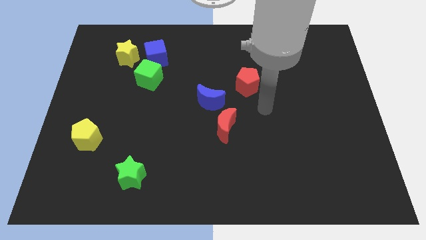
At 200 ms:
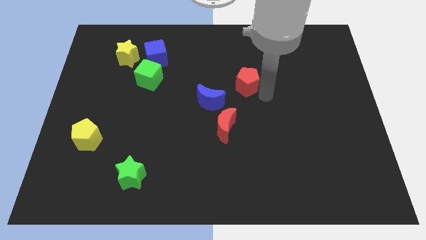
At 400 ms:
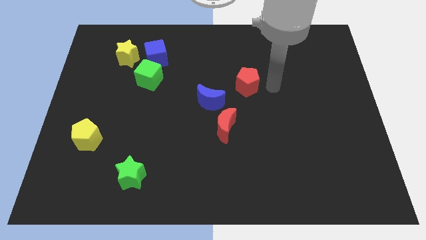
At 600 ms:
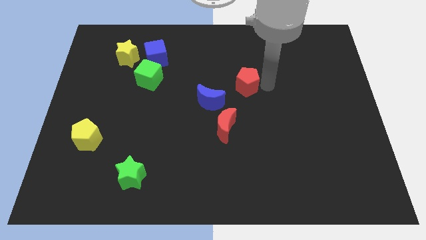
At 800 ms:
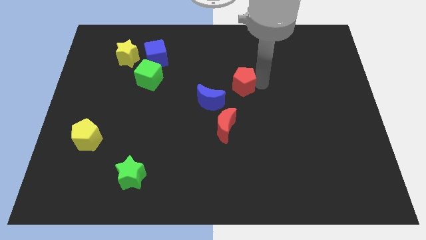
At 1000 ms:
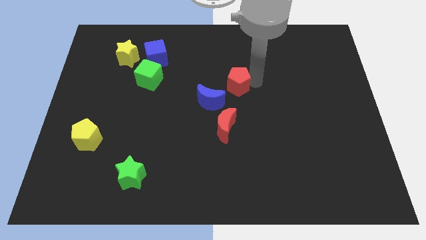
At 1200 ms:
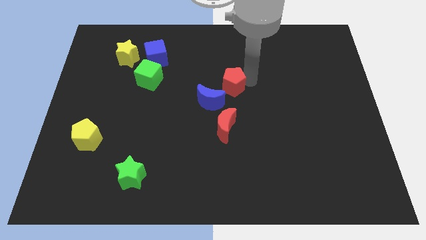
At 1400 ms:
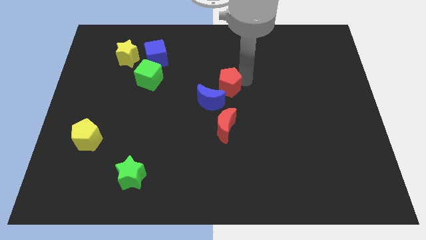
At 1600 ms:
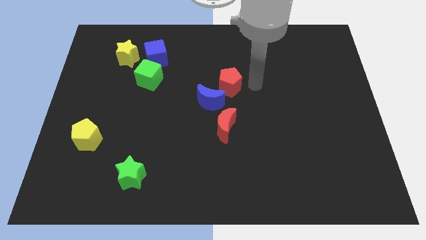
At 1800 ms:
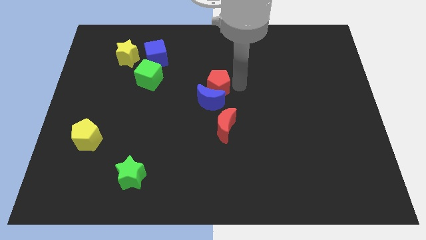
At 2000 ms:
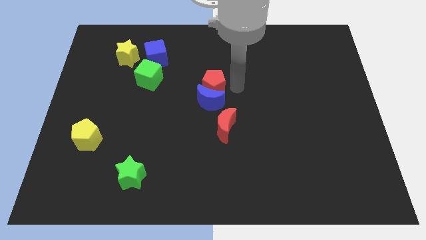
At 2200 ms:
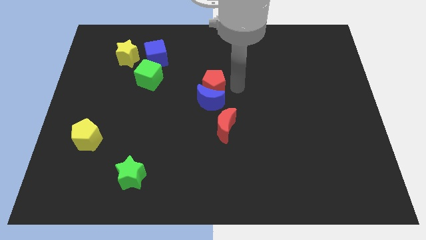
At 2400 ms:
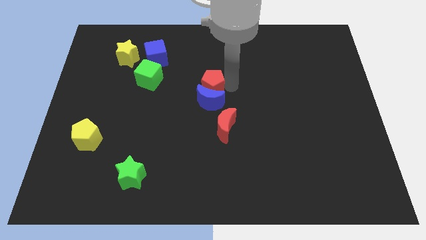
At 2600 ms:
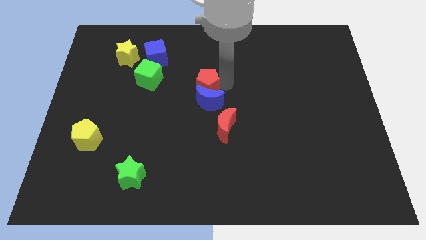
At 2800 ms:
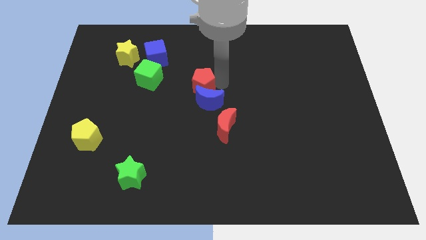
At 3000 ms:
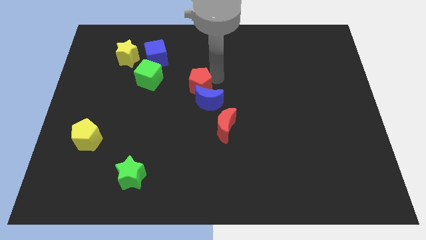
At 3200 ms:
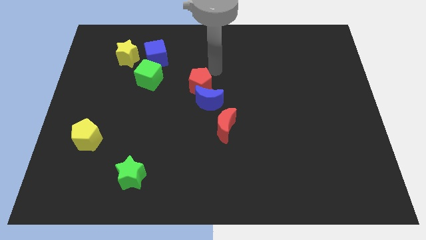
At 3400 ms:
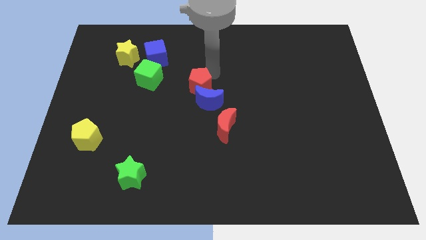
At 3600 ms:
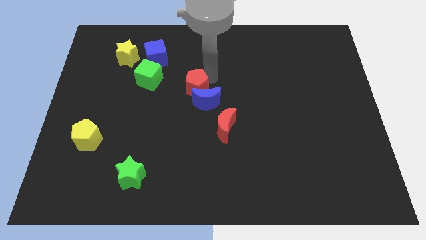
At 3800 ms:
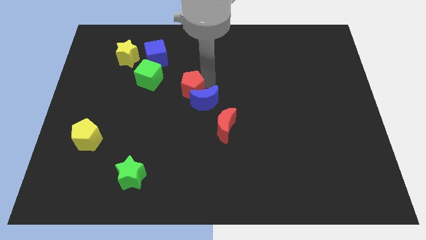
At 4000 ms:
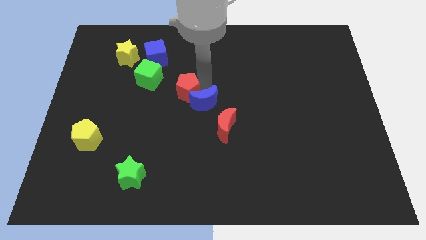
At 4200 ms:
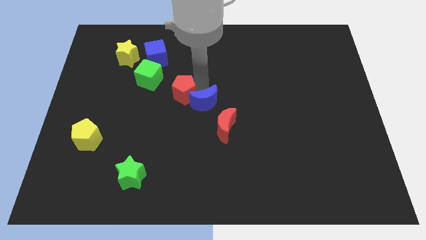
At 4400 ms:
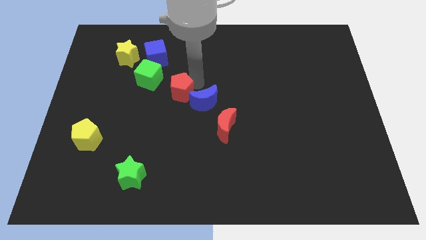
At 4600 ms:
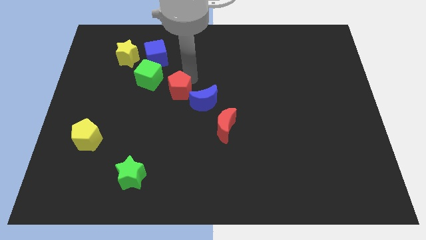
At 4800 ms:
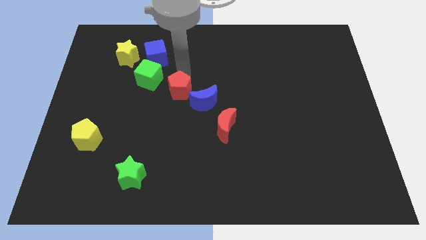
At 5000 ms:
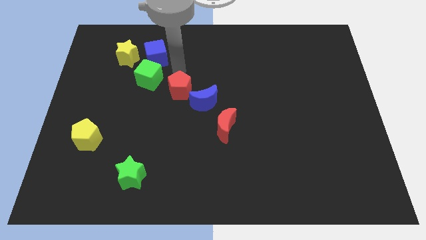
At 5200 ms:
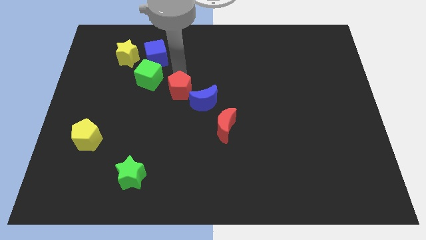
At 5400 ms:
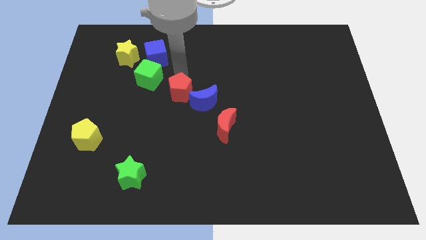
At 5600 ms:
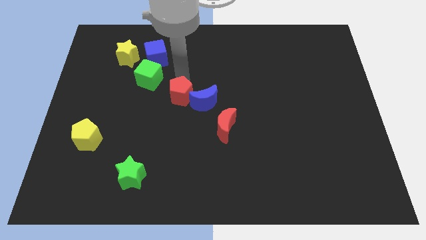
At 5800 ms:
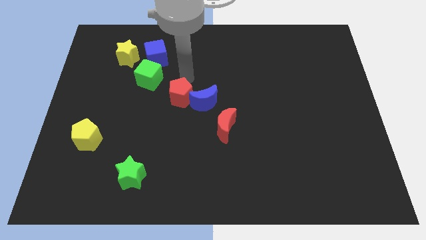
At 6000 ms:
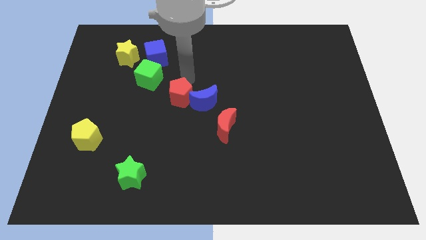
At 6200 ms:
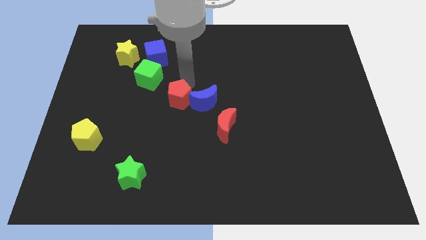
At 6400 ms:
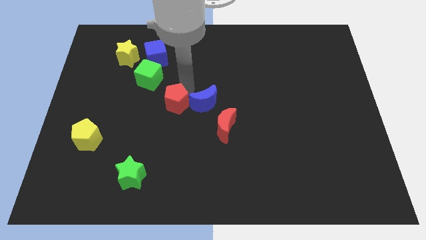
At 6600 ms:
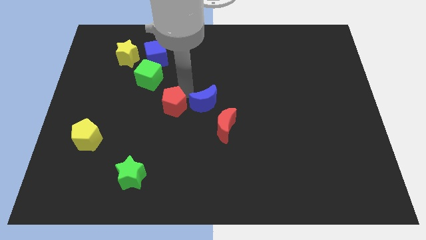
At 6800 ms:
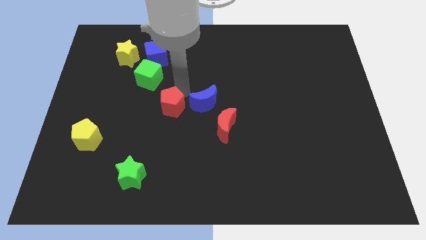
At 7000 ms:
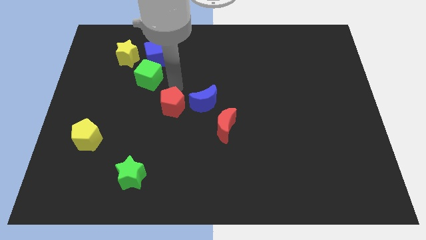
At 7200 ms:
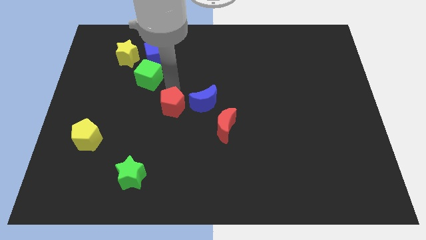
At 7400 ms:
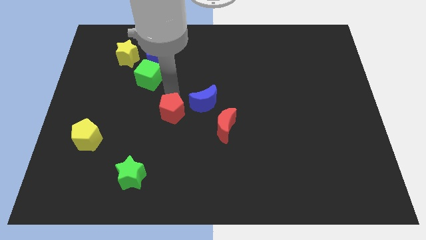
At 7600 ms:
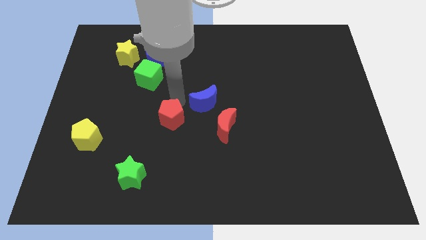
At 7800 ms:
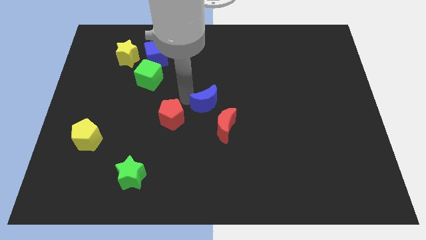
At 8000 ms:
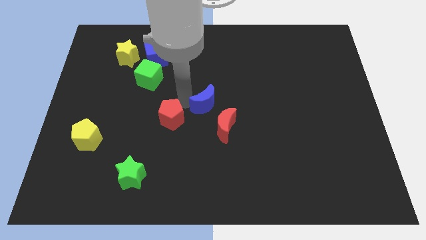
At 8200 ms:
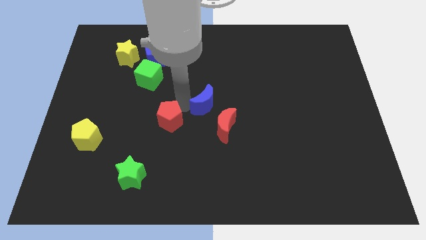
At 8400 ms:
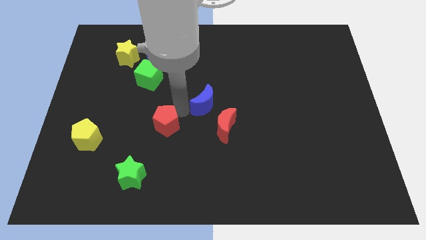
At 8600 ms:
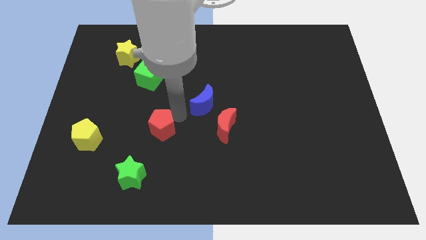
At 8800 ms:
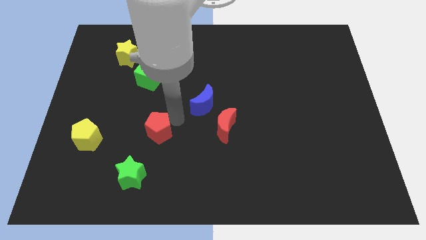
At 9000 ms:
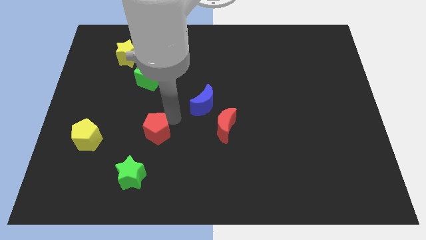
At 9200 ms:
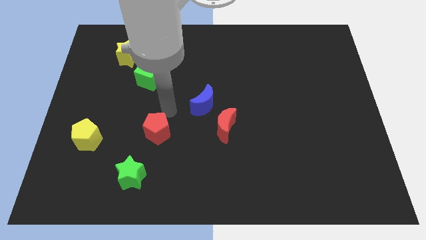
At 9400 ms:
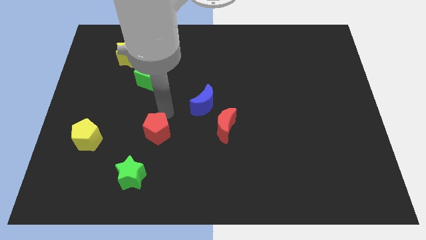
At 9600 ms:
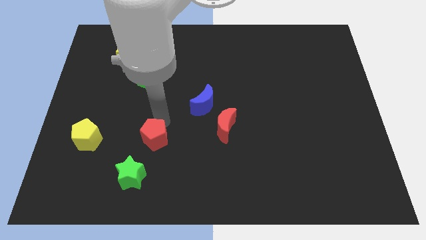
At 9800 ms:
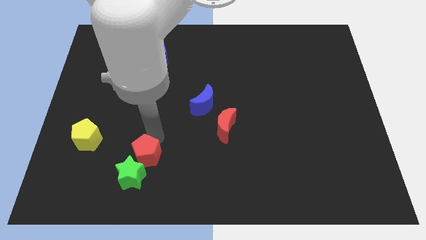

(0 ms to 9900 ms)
put the red pentagon towards the green star

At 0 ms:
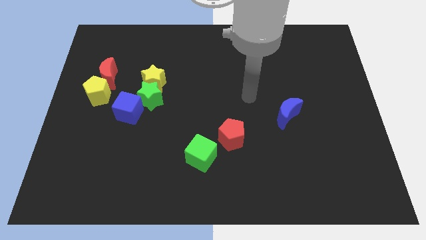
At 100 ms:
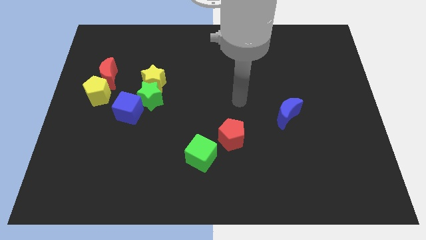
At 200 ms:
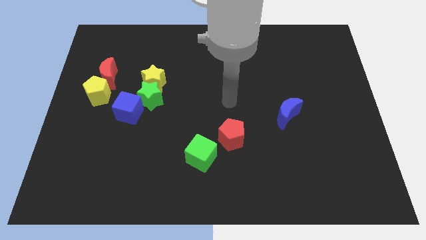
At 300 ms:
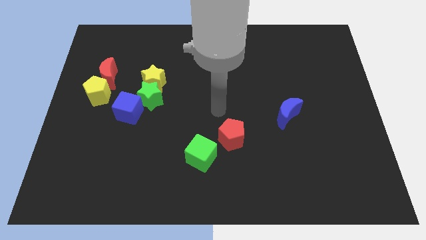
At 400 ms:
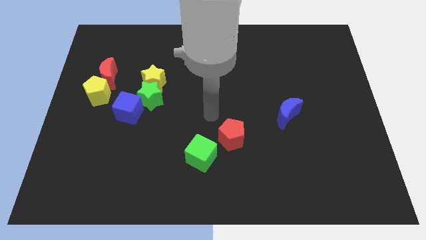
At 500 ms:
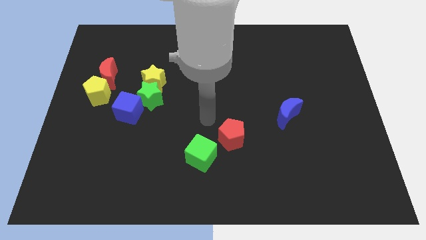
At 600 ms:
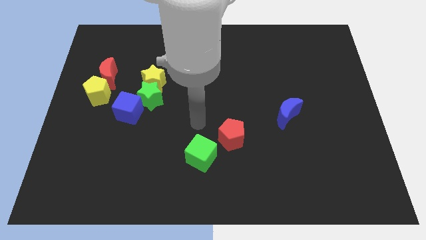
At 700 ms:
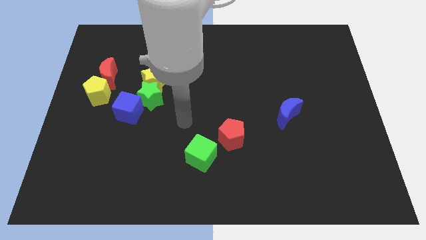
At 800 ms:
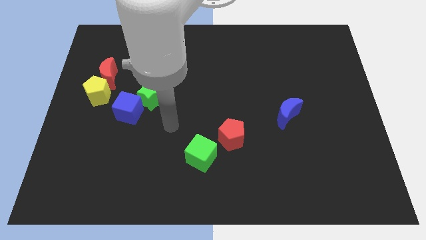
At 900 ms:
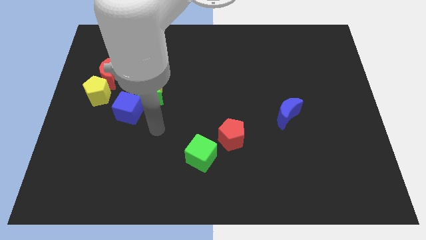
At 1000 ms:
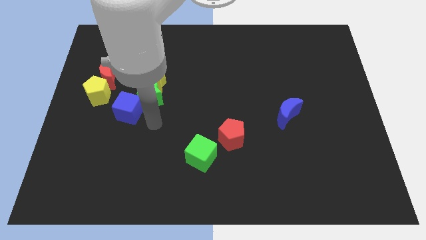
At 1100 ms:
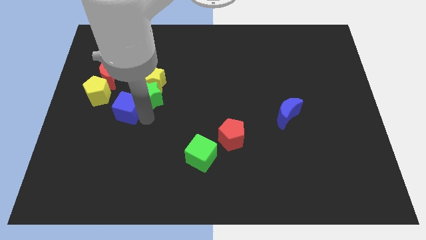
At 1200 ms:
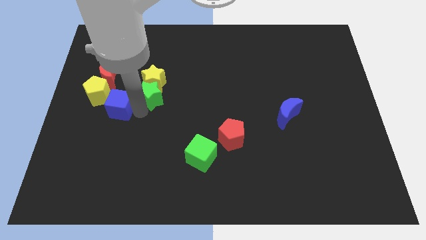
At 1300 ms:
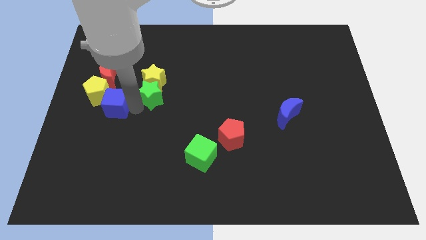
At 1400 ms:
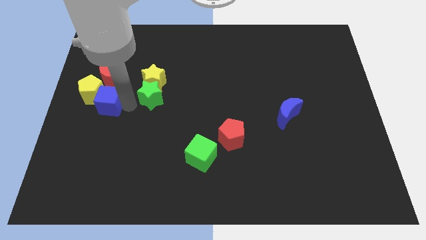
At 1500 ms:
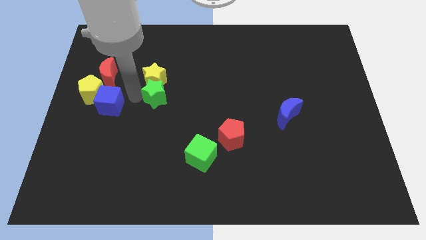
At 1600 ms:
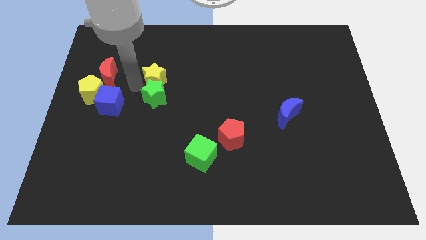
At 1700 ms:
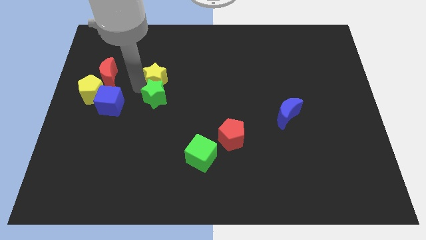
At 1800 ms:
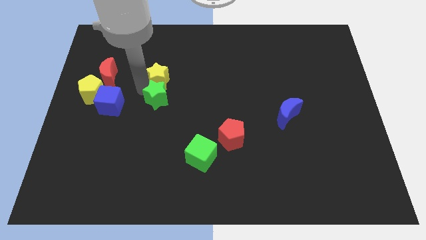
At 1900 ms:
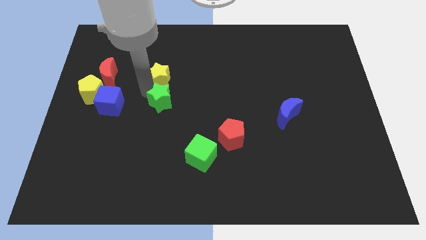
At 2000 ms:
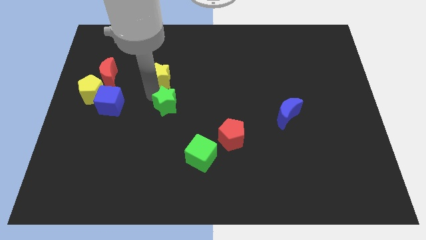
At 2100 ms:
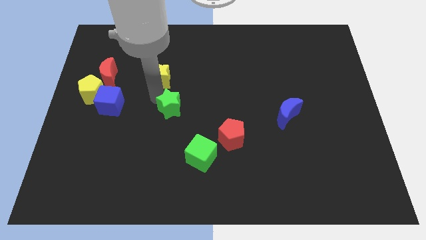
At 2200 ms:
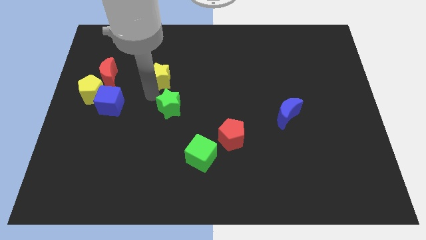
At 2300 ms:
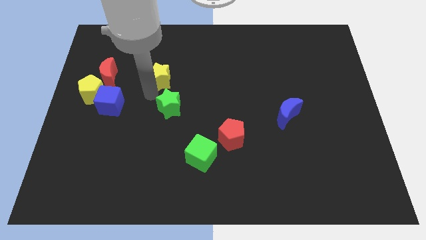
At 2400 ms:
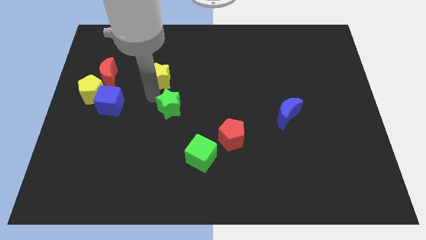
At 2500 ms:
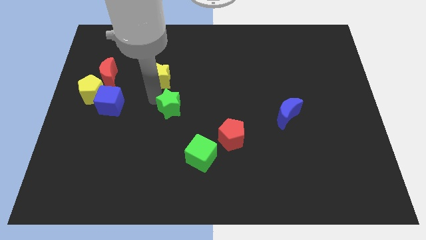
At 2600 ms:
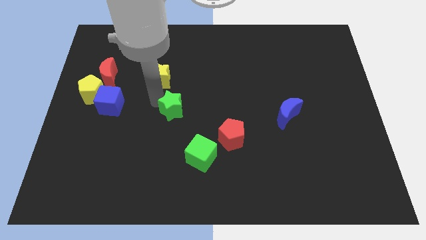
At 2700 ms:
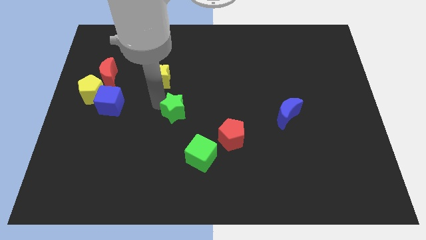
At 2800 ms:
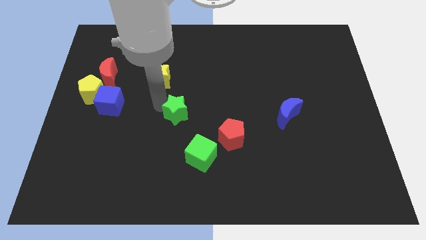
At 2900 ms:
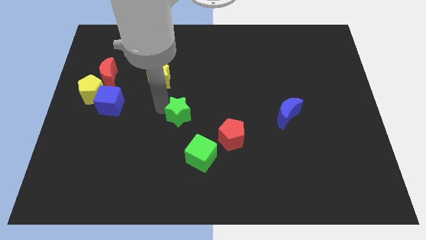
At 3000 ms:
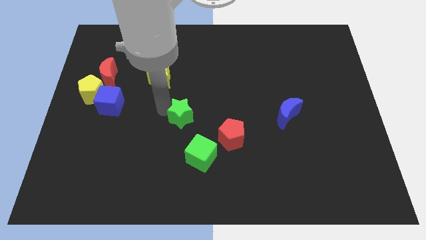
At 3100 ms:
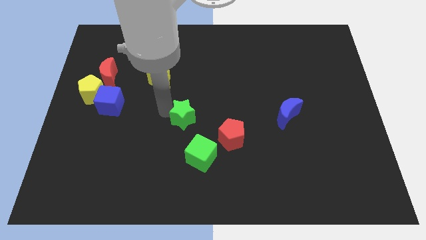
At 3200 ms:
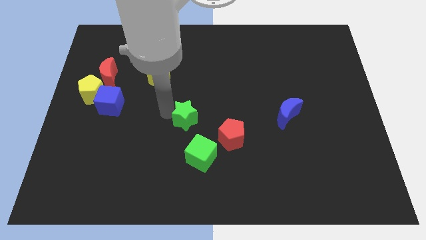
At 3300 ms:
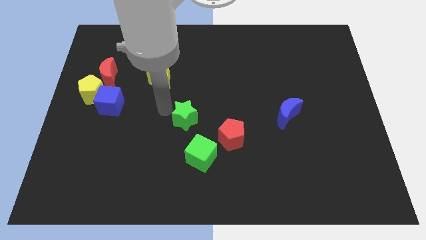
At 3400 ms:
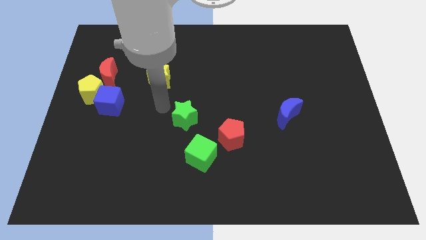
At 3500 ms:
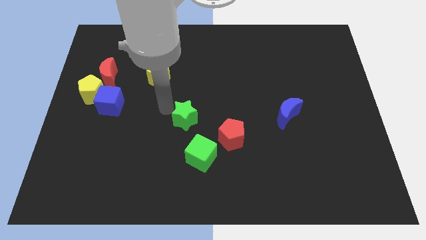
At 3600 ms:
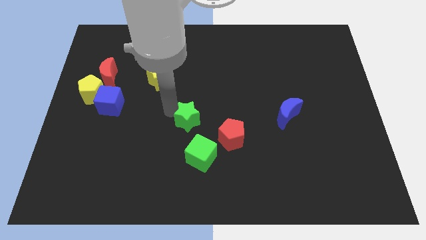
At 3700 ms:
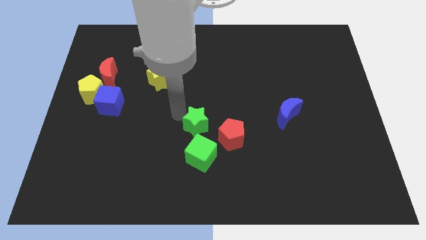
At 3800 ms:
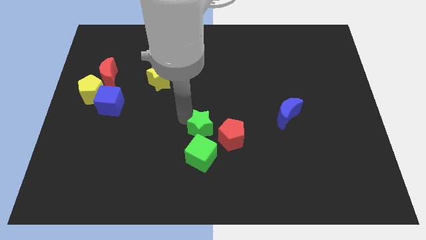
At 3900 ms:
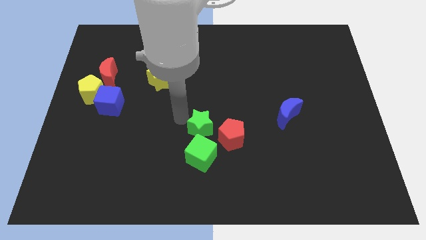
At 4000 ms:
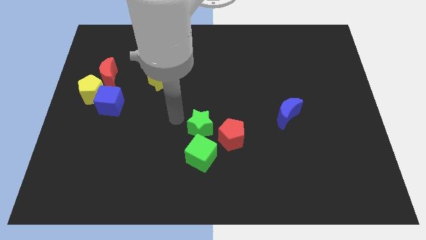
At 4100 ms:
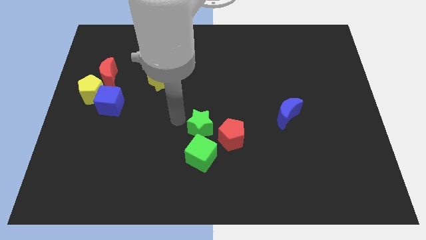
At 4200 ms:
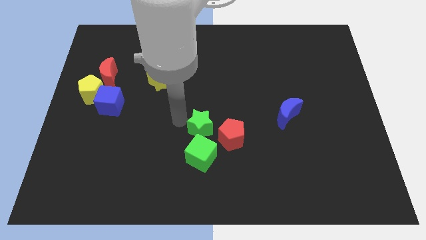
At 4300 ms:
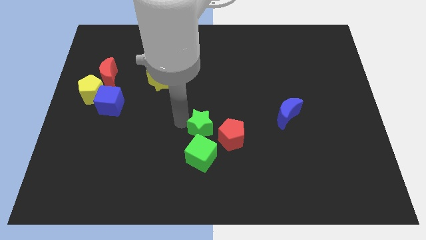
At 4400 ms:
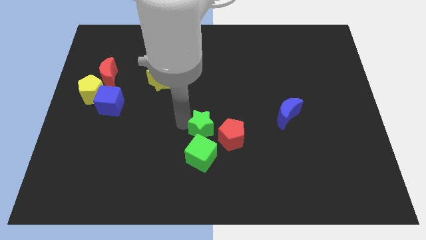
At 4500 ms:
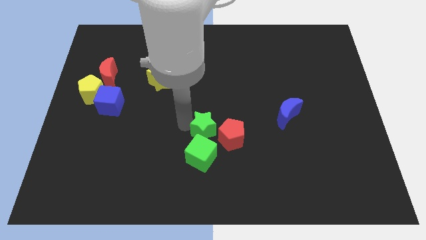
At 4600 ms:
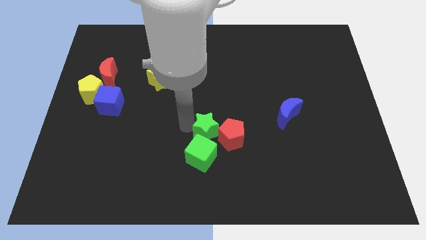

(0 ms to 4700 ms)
move the green star towards the red pentagon
